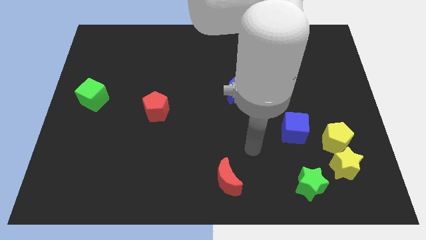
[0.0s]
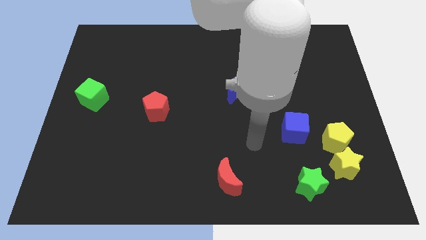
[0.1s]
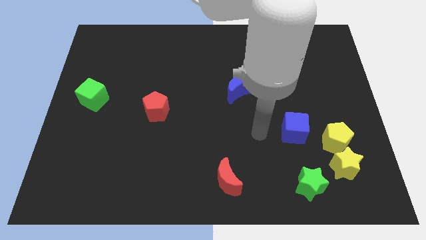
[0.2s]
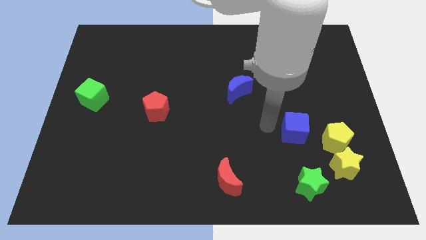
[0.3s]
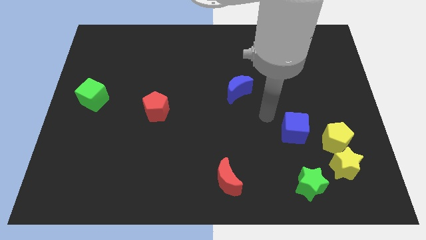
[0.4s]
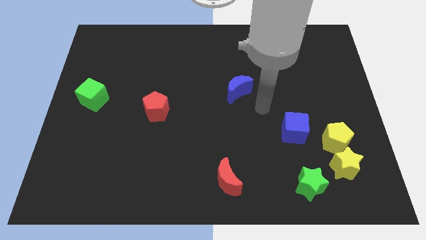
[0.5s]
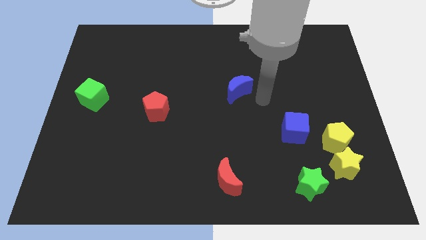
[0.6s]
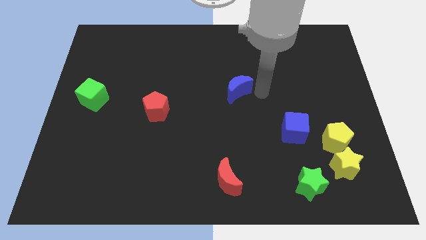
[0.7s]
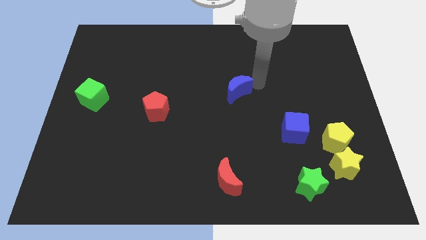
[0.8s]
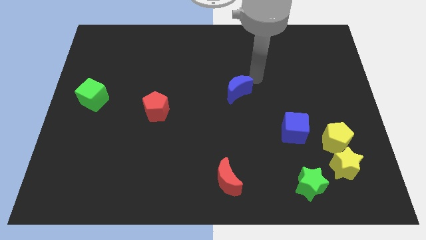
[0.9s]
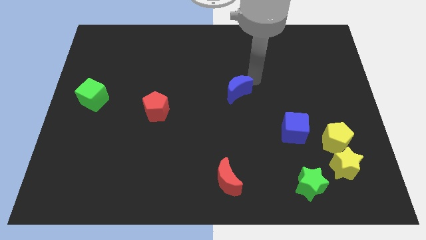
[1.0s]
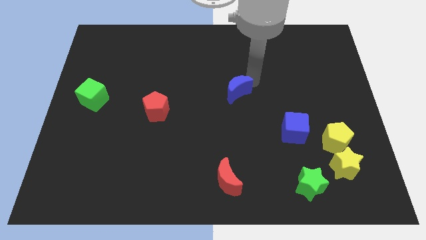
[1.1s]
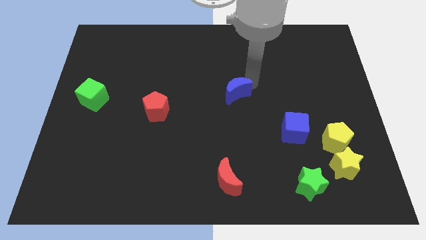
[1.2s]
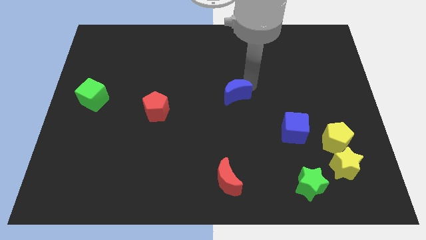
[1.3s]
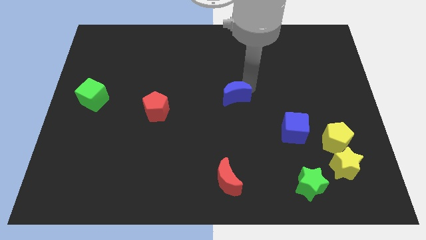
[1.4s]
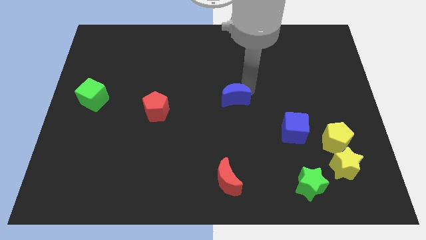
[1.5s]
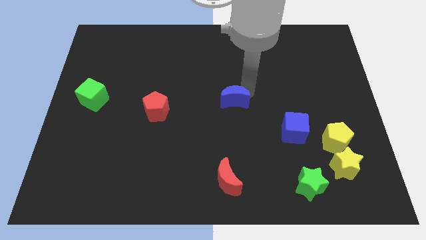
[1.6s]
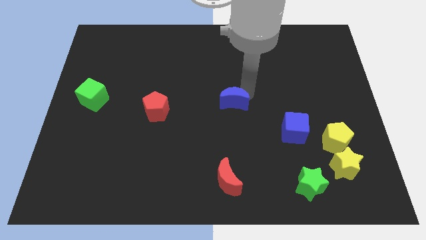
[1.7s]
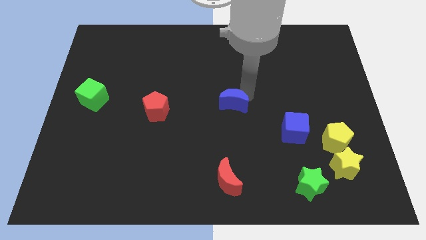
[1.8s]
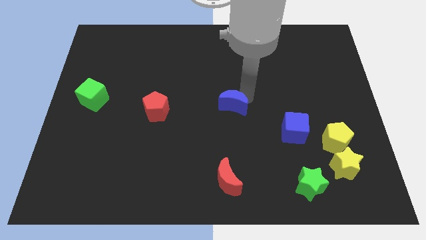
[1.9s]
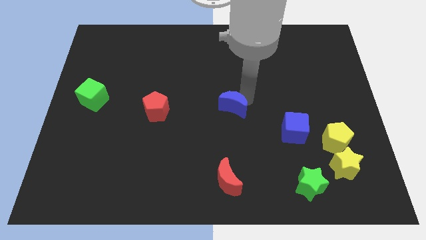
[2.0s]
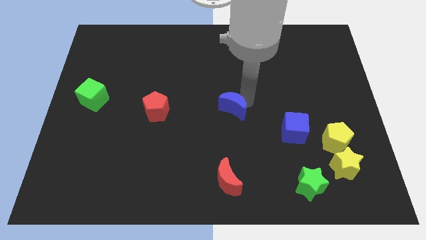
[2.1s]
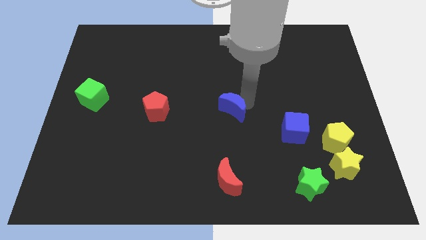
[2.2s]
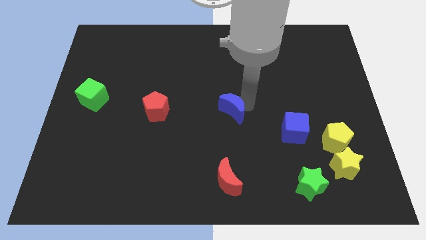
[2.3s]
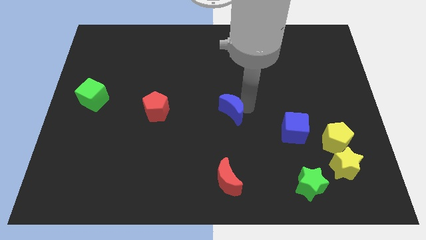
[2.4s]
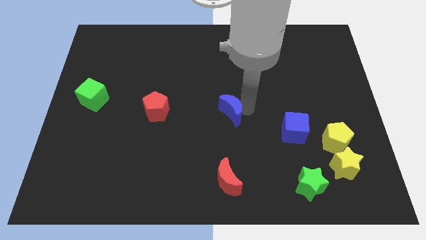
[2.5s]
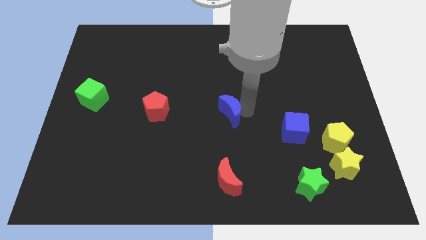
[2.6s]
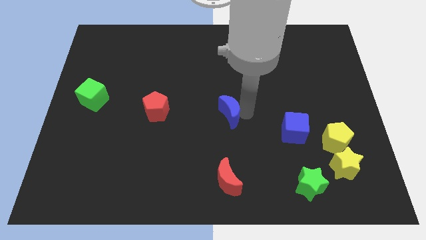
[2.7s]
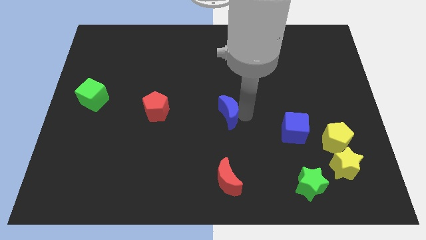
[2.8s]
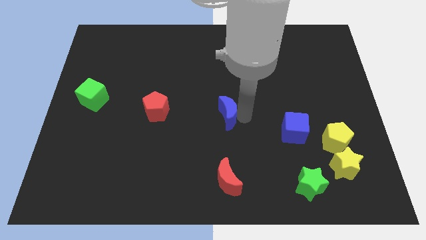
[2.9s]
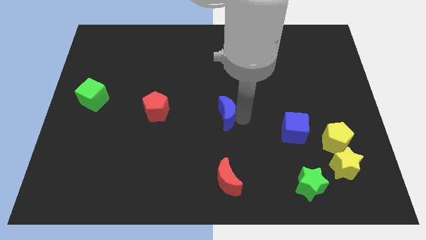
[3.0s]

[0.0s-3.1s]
slide the blue moon a bit downwards and then to the left

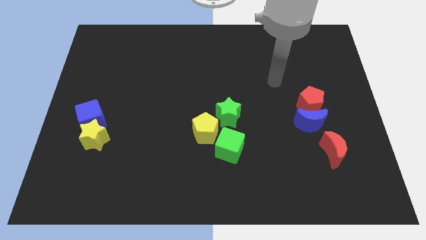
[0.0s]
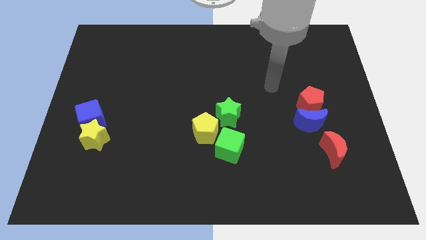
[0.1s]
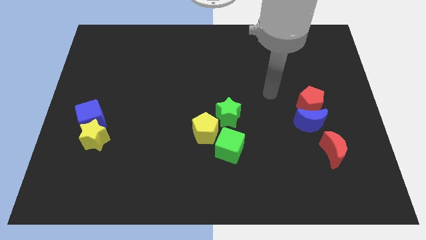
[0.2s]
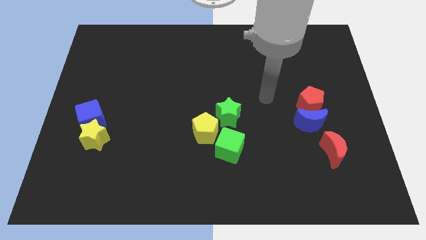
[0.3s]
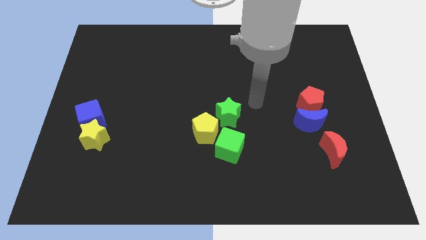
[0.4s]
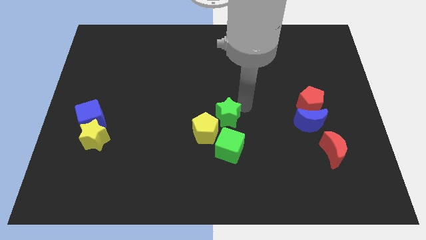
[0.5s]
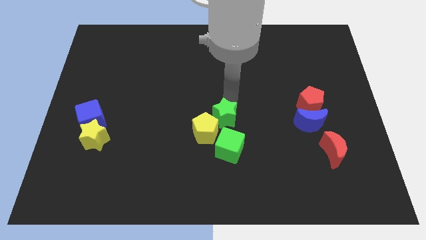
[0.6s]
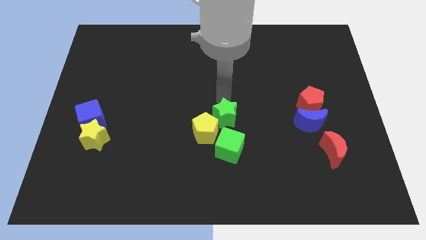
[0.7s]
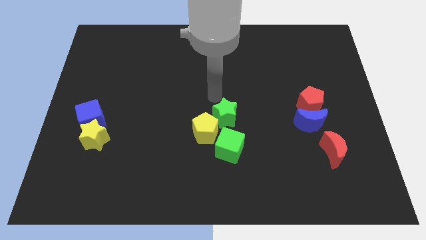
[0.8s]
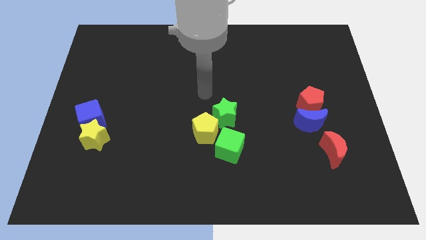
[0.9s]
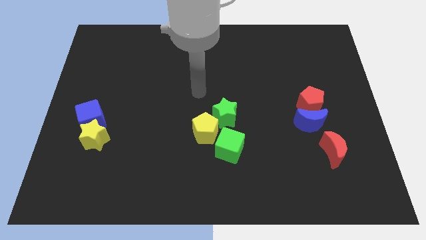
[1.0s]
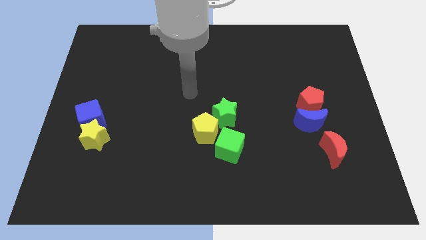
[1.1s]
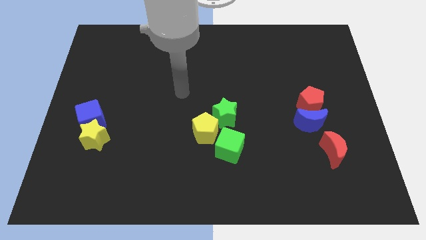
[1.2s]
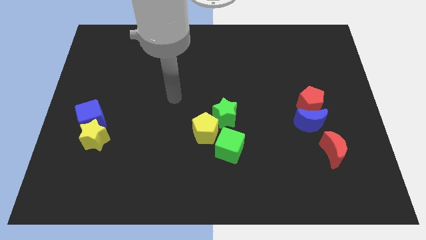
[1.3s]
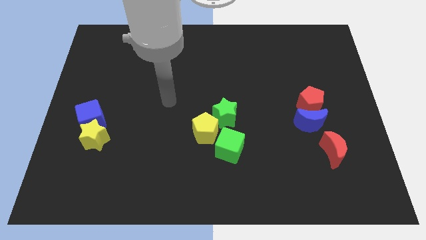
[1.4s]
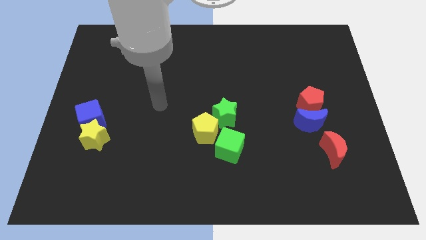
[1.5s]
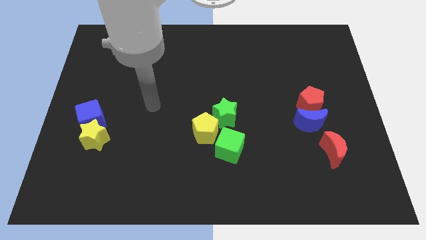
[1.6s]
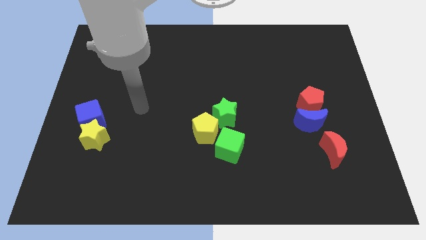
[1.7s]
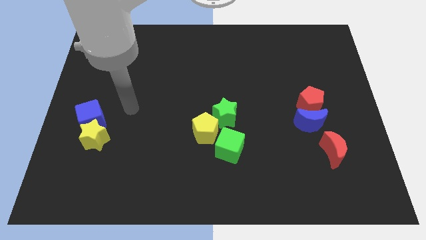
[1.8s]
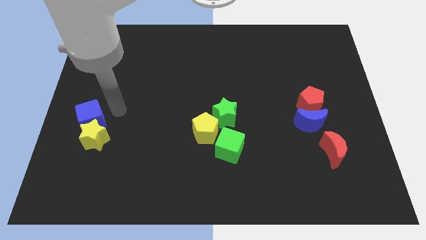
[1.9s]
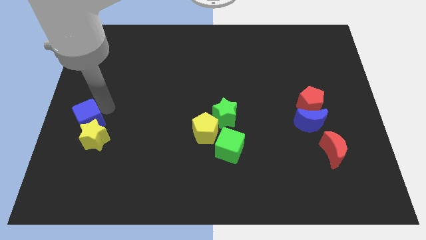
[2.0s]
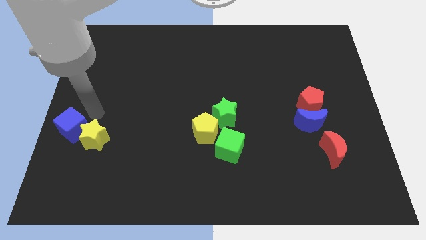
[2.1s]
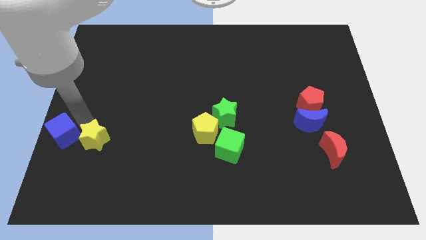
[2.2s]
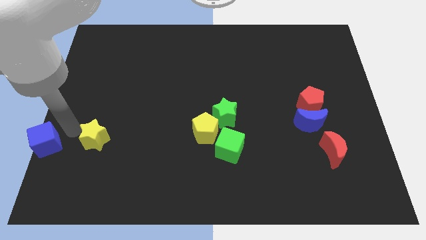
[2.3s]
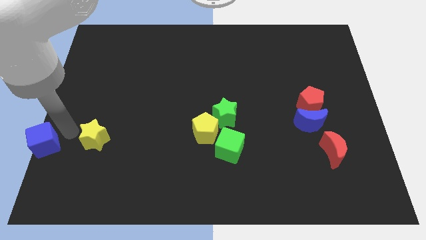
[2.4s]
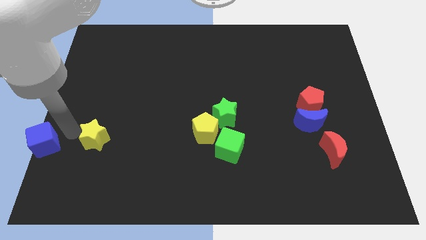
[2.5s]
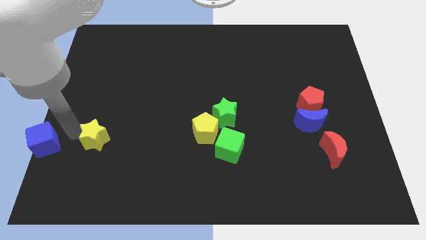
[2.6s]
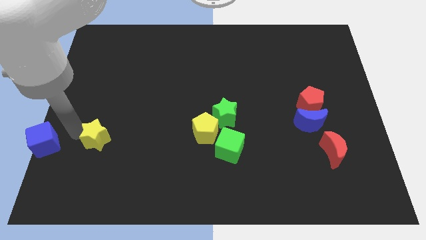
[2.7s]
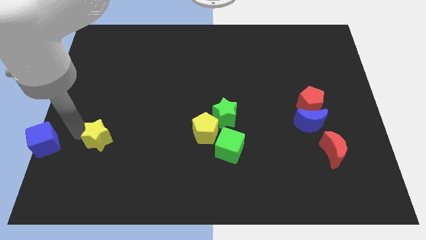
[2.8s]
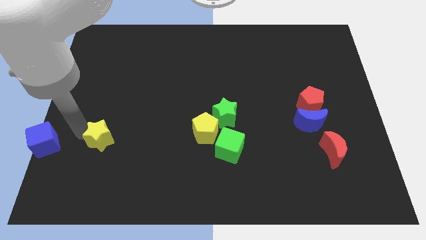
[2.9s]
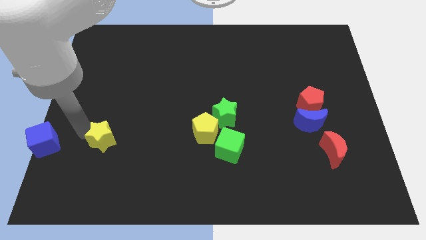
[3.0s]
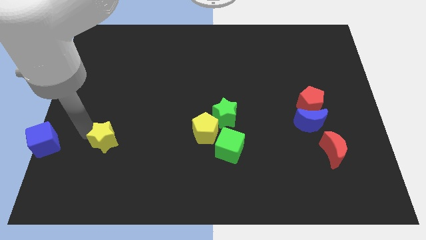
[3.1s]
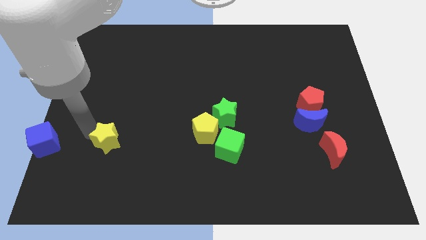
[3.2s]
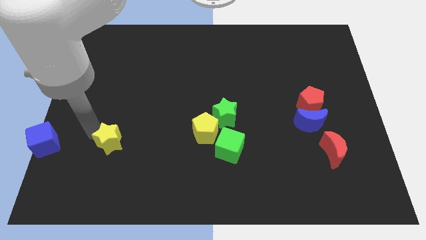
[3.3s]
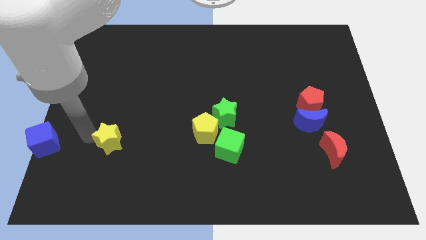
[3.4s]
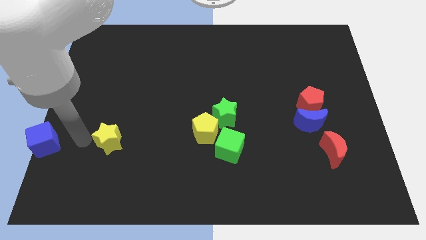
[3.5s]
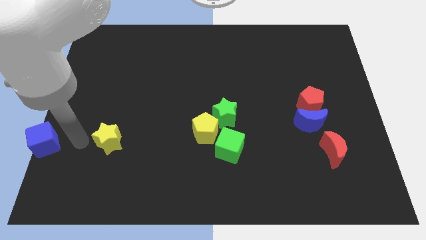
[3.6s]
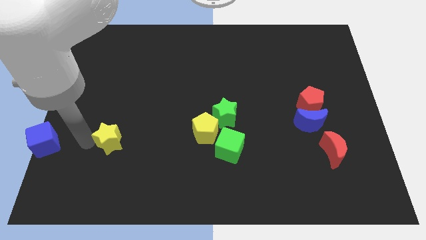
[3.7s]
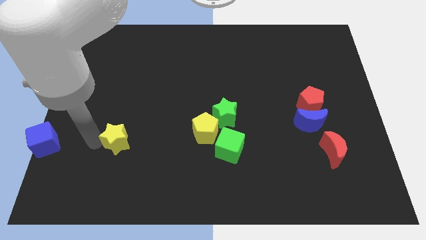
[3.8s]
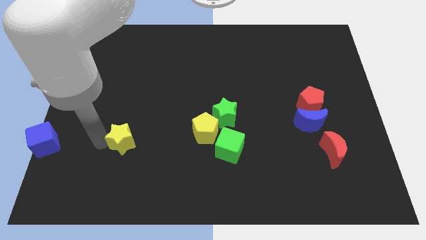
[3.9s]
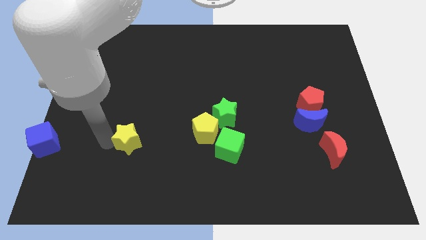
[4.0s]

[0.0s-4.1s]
push the yellow star to the right a bit

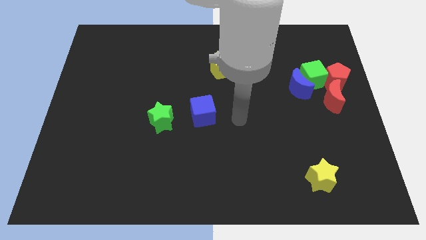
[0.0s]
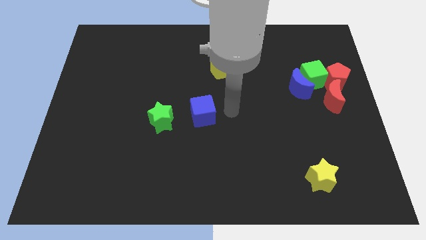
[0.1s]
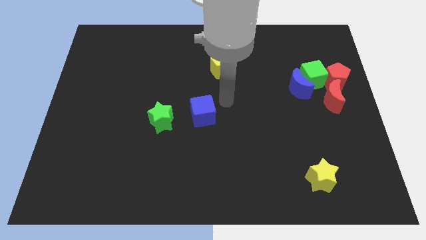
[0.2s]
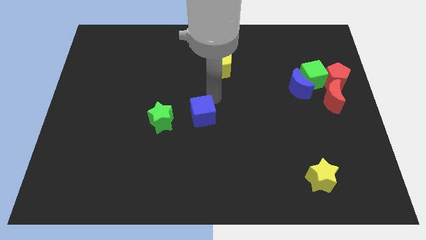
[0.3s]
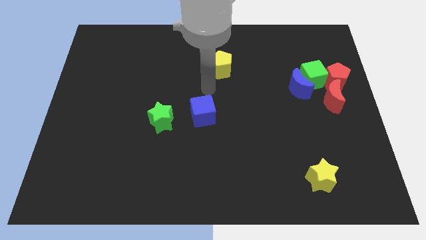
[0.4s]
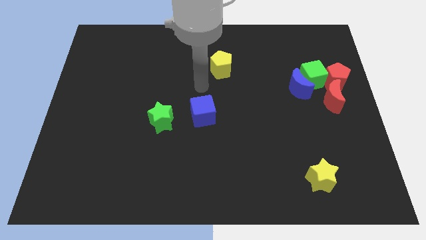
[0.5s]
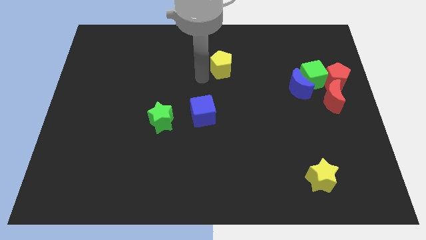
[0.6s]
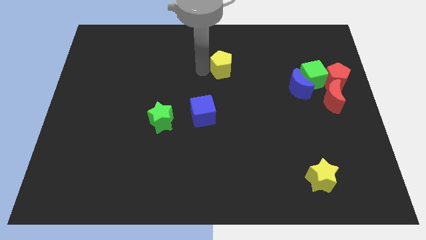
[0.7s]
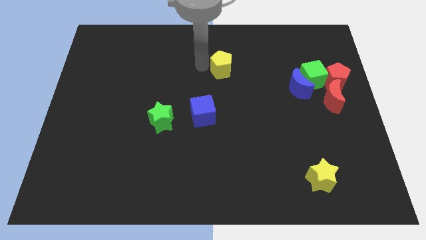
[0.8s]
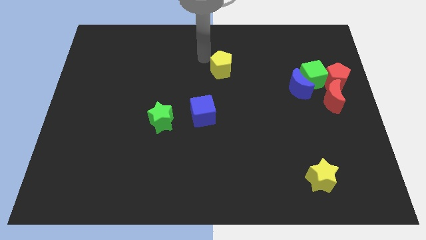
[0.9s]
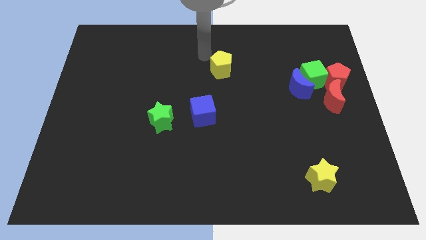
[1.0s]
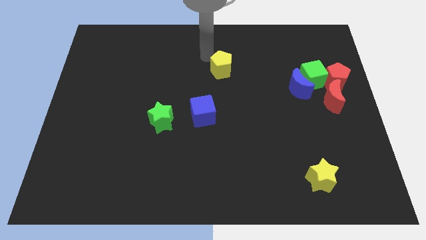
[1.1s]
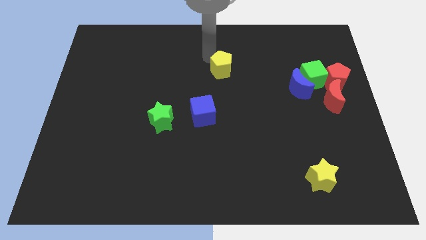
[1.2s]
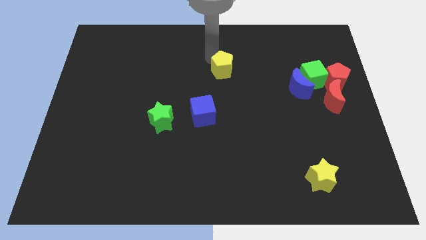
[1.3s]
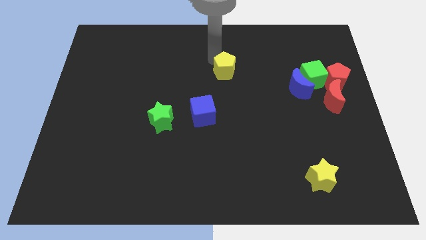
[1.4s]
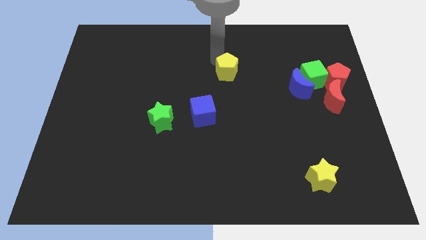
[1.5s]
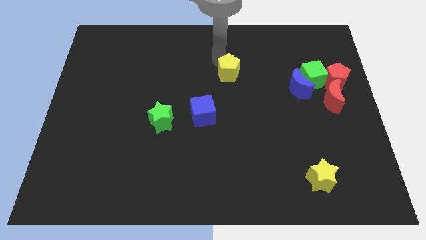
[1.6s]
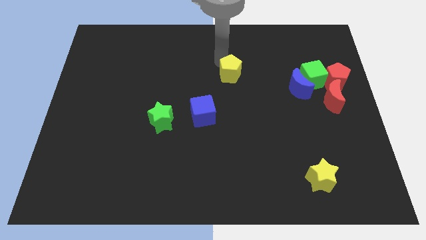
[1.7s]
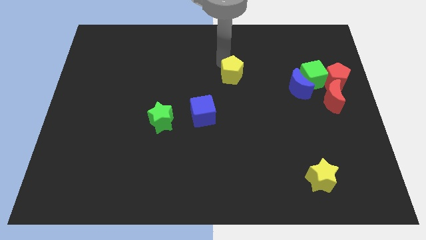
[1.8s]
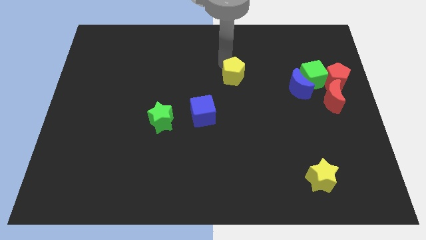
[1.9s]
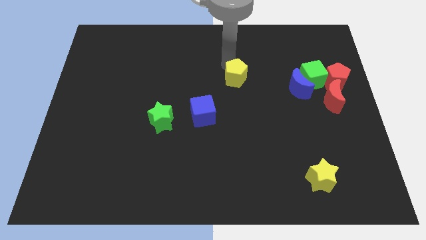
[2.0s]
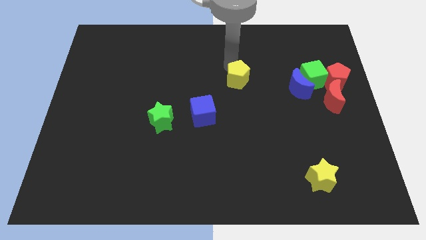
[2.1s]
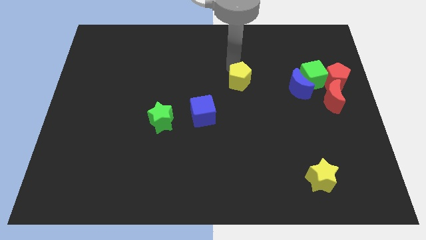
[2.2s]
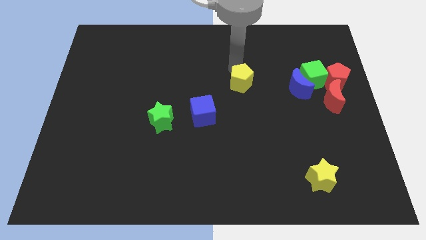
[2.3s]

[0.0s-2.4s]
slide the yellow pentagon downwards and then to the right somewhat
